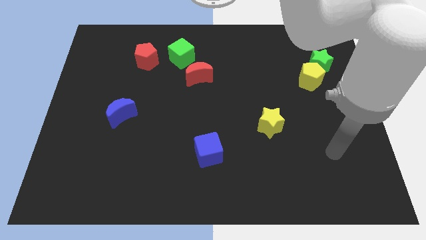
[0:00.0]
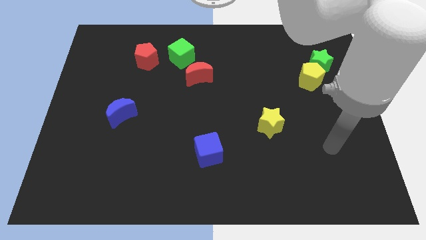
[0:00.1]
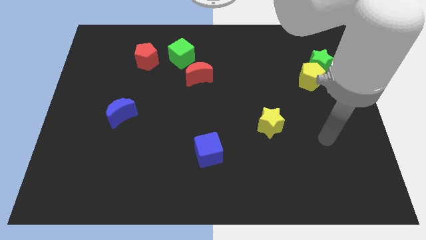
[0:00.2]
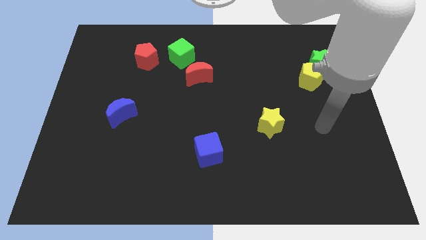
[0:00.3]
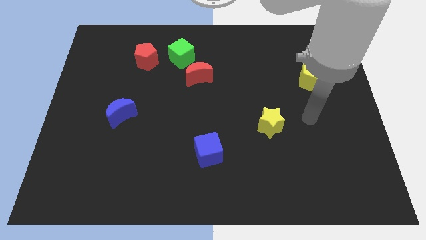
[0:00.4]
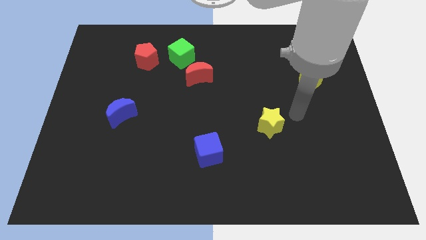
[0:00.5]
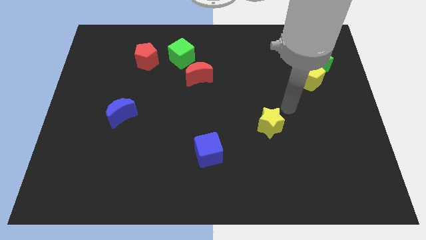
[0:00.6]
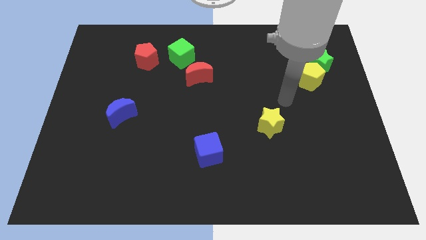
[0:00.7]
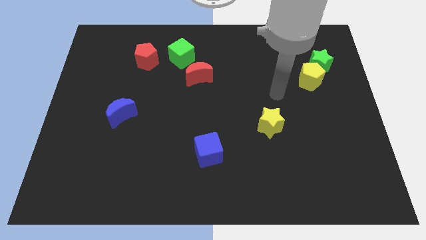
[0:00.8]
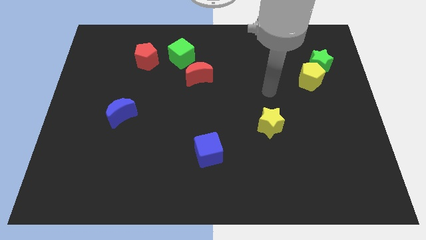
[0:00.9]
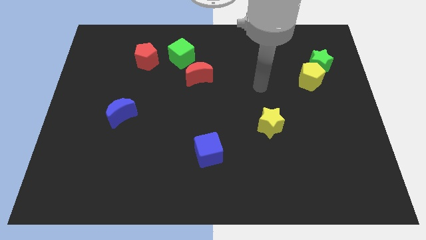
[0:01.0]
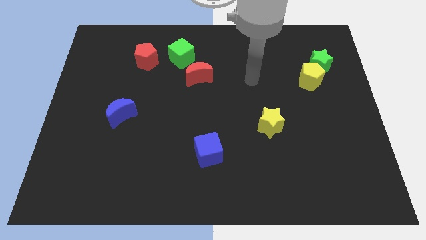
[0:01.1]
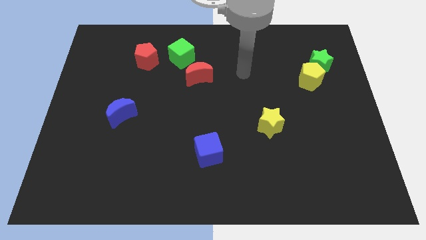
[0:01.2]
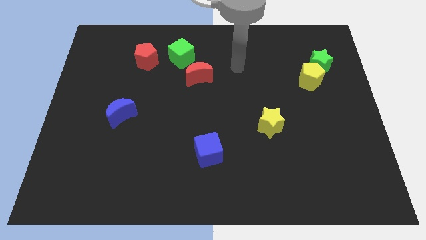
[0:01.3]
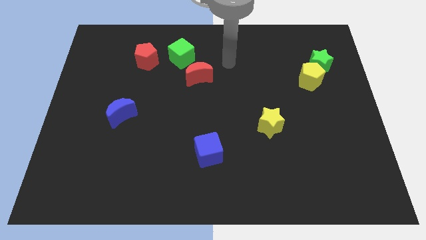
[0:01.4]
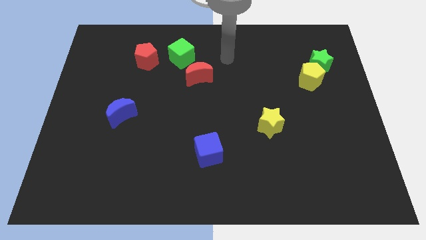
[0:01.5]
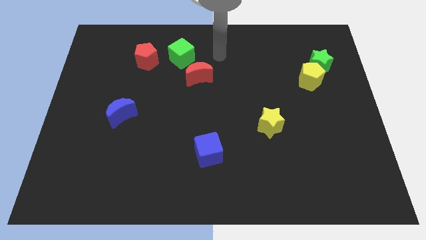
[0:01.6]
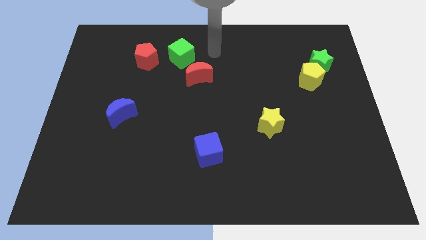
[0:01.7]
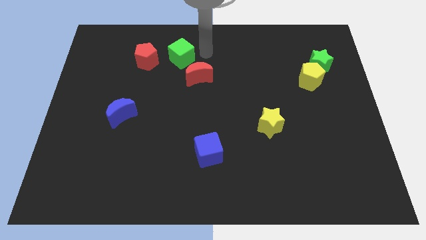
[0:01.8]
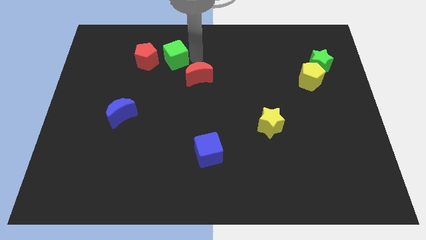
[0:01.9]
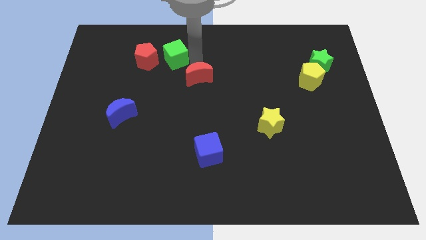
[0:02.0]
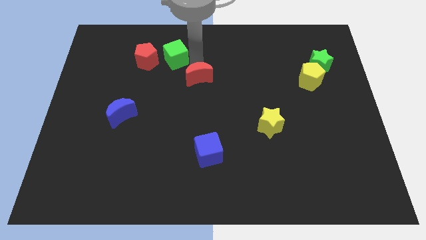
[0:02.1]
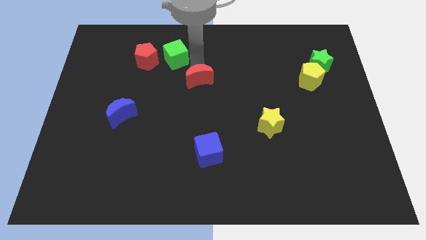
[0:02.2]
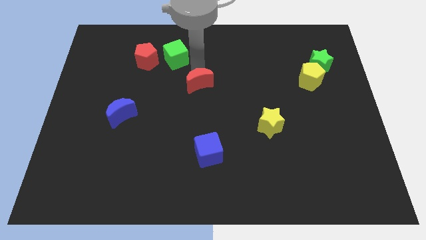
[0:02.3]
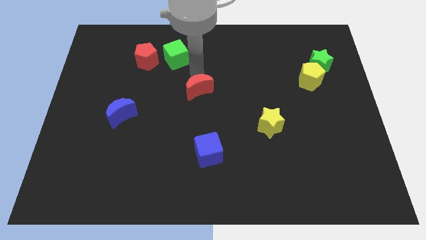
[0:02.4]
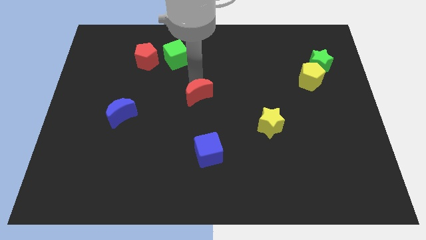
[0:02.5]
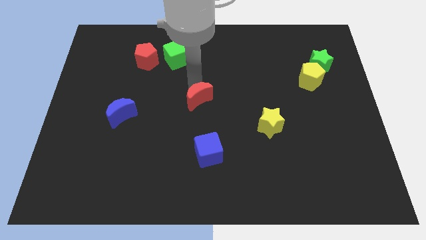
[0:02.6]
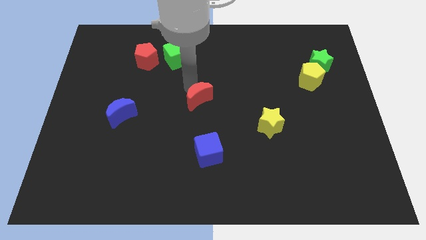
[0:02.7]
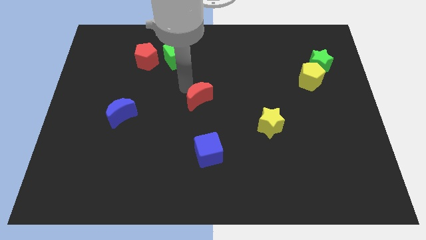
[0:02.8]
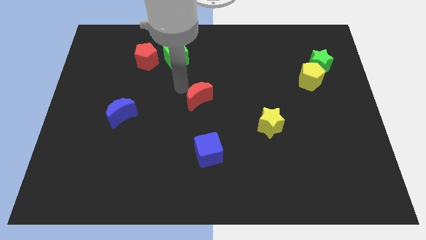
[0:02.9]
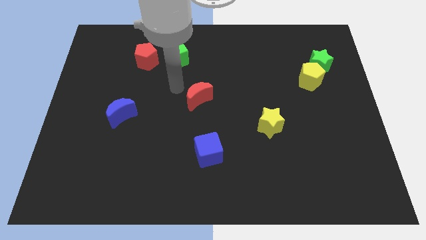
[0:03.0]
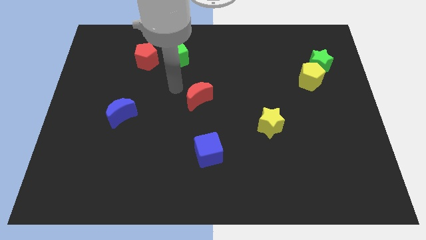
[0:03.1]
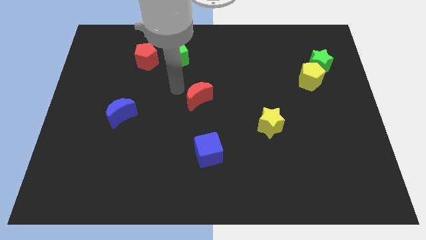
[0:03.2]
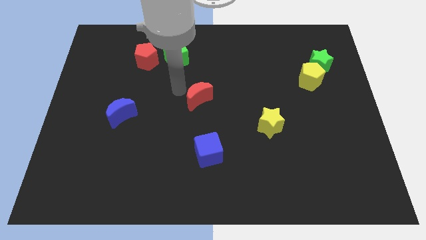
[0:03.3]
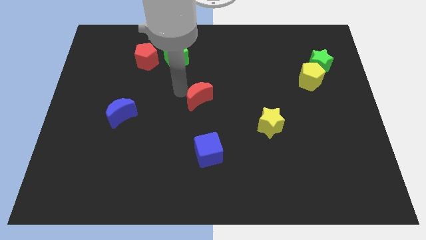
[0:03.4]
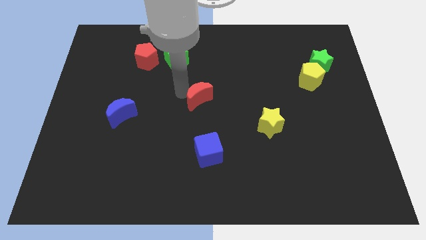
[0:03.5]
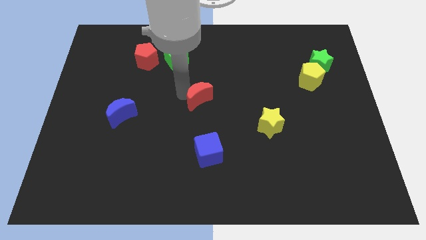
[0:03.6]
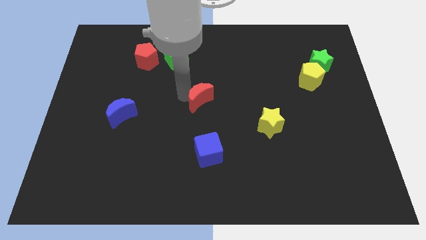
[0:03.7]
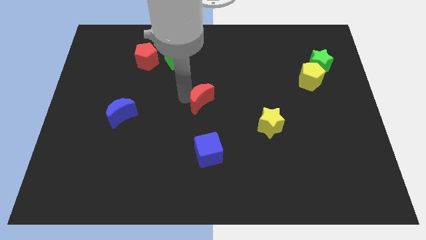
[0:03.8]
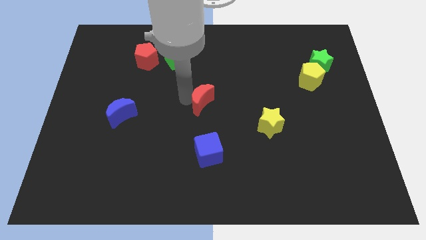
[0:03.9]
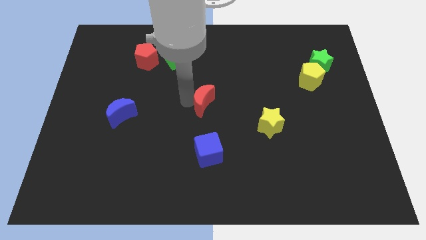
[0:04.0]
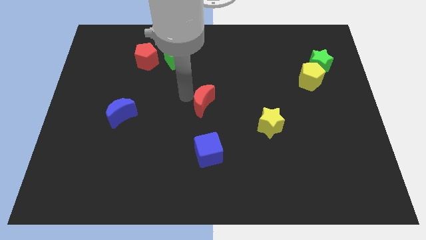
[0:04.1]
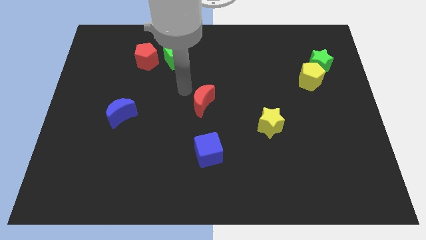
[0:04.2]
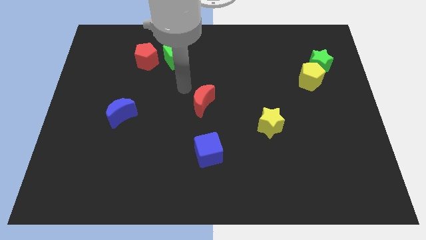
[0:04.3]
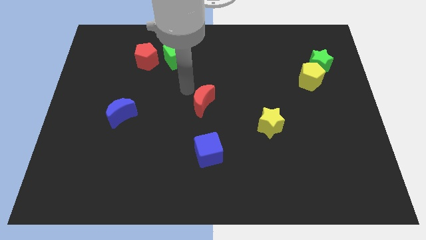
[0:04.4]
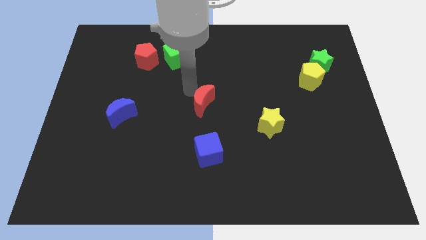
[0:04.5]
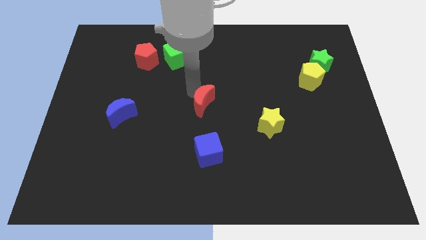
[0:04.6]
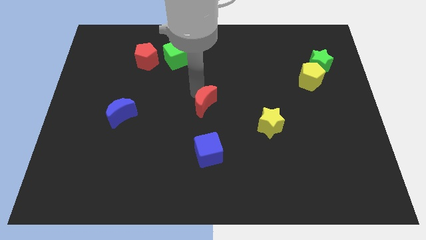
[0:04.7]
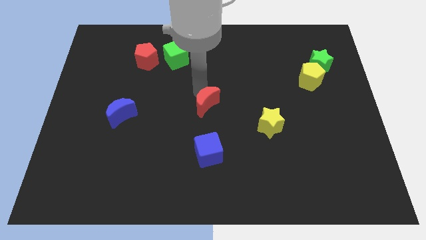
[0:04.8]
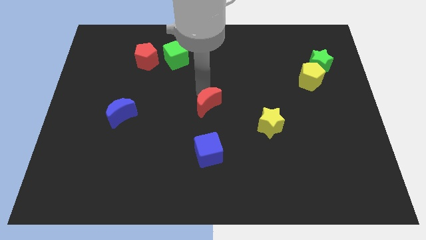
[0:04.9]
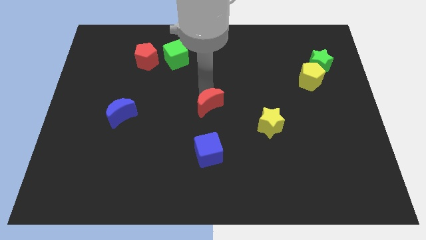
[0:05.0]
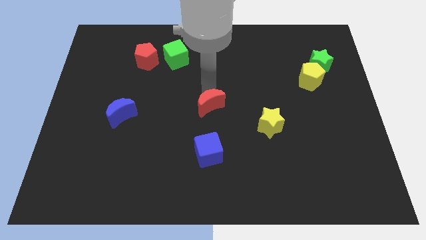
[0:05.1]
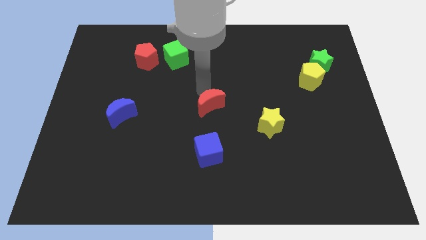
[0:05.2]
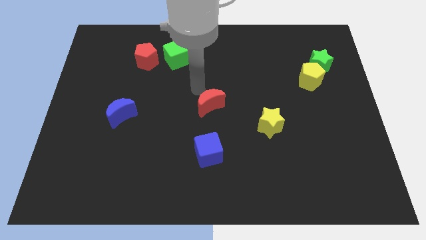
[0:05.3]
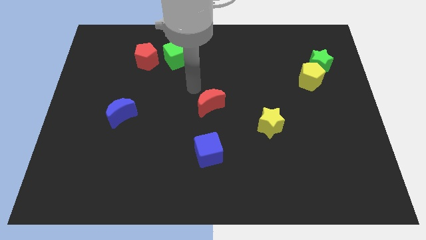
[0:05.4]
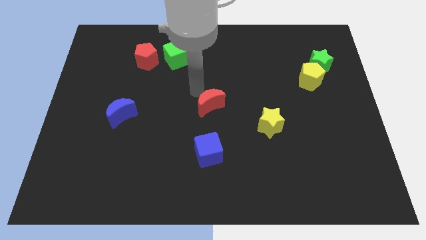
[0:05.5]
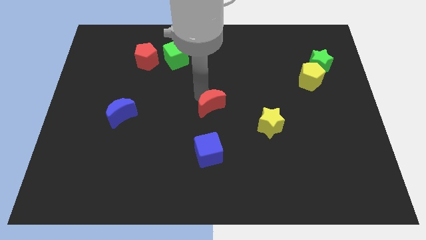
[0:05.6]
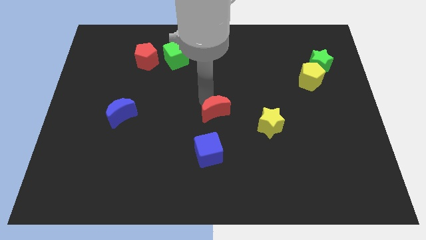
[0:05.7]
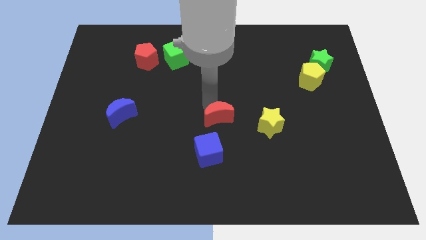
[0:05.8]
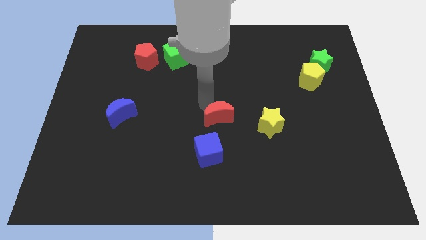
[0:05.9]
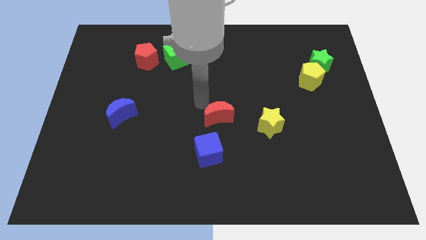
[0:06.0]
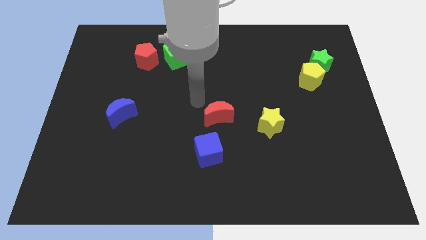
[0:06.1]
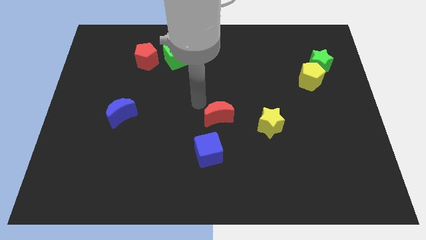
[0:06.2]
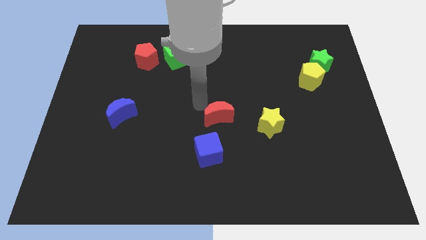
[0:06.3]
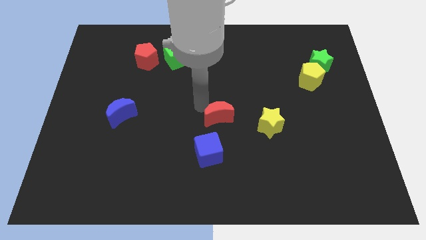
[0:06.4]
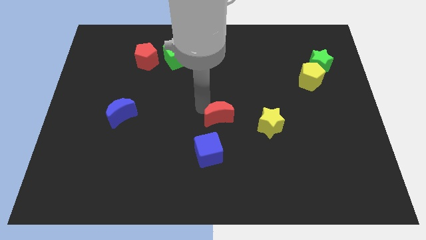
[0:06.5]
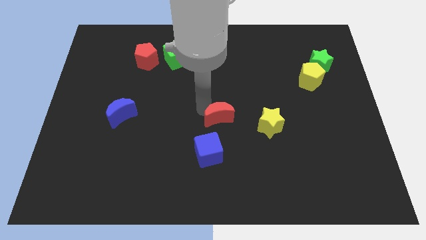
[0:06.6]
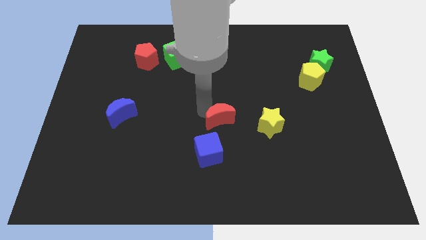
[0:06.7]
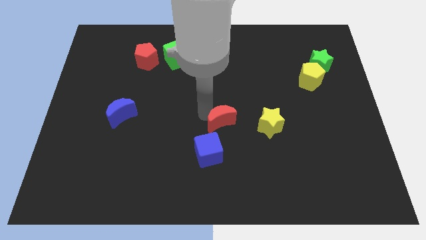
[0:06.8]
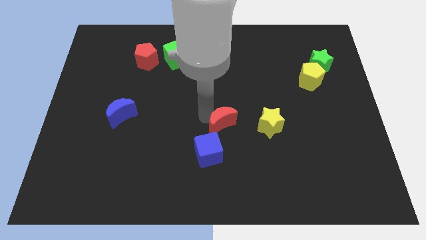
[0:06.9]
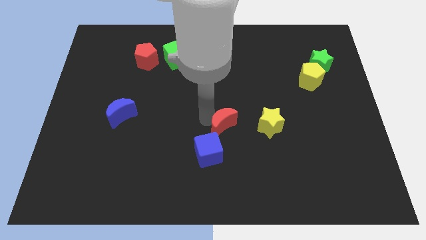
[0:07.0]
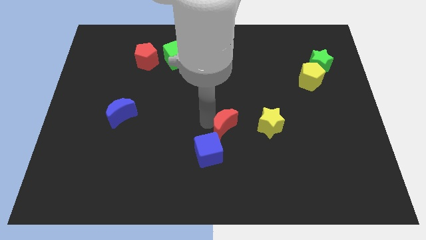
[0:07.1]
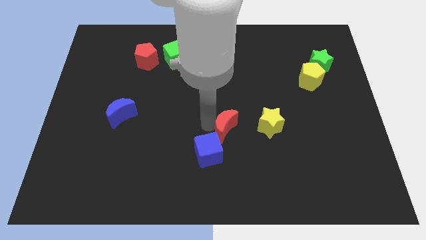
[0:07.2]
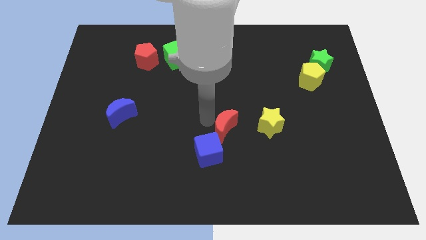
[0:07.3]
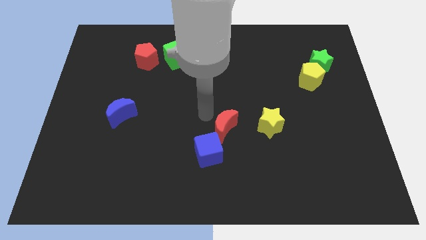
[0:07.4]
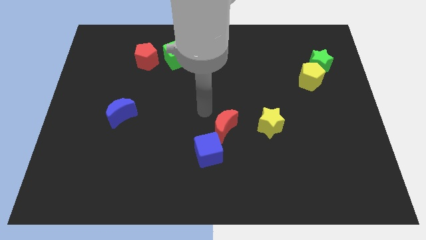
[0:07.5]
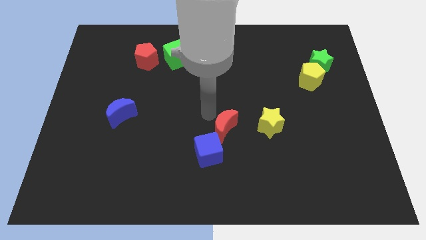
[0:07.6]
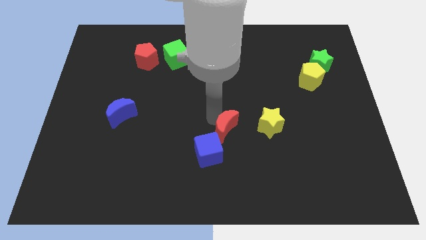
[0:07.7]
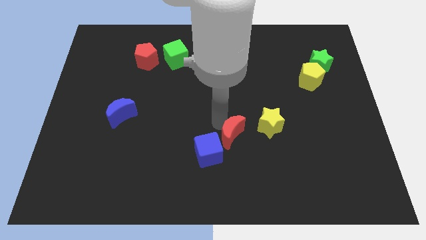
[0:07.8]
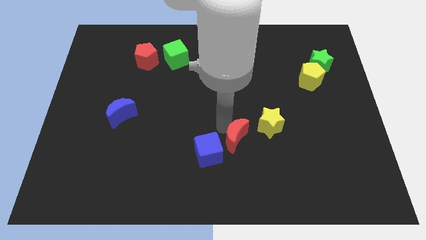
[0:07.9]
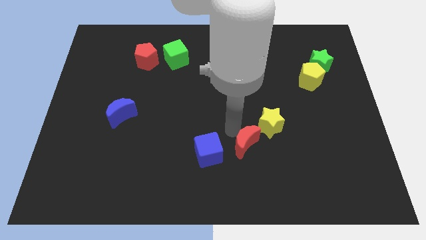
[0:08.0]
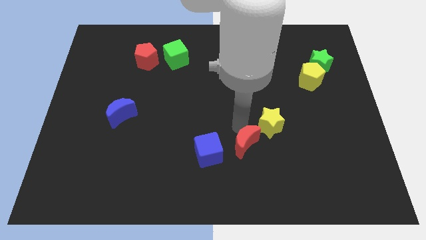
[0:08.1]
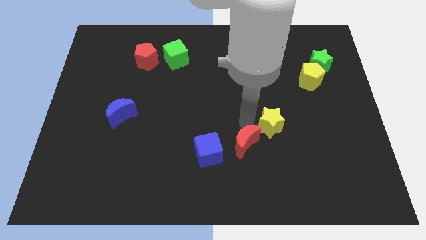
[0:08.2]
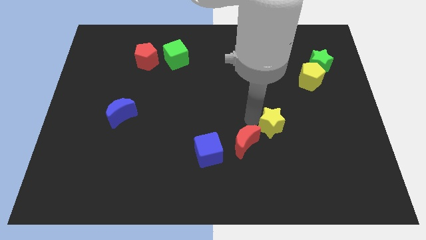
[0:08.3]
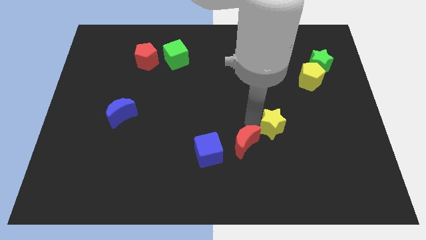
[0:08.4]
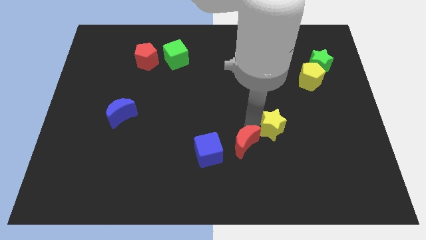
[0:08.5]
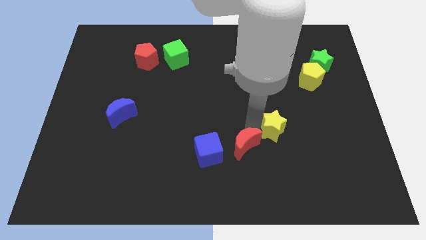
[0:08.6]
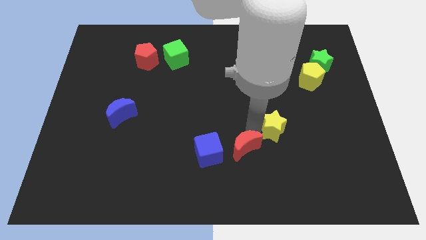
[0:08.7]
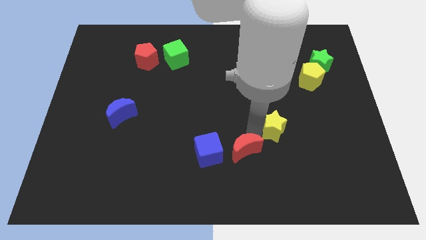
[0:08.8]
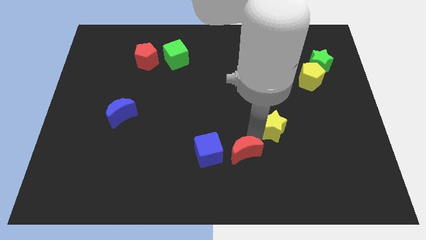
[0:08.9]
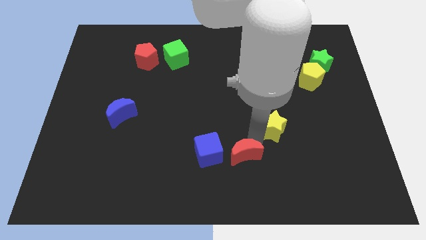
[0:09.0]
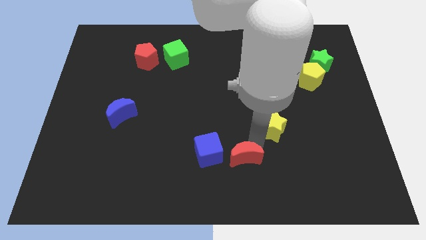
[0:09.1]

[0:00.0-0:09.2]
slide the red moon to the bottom right side of the blue cube
